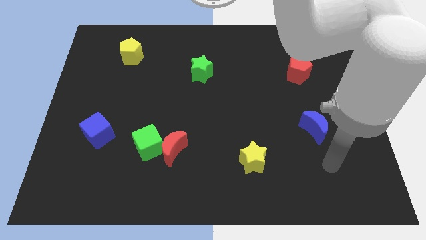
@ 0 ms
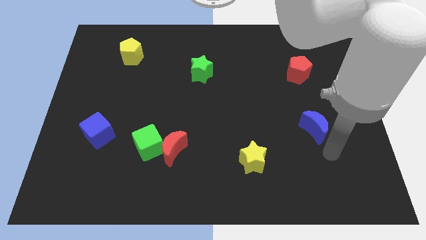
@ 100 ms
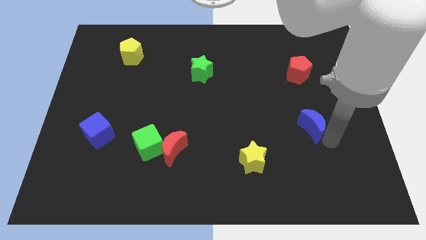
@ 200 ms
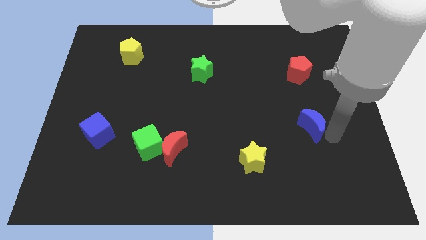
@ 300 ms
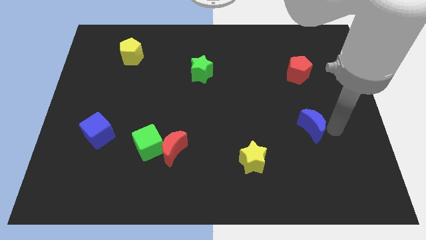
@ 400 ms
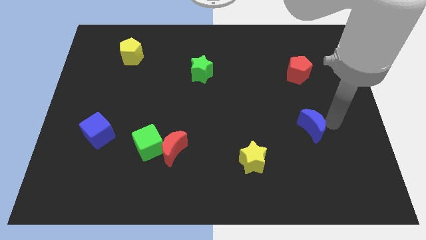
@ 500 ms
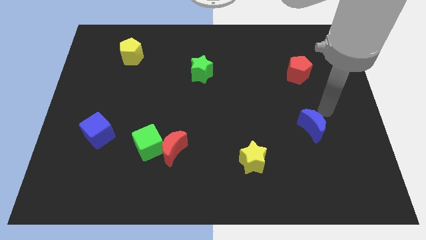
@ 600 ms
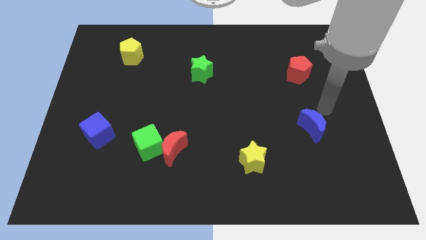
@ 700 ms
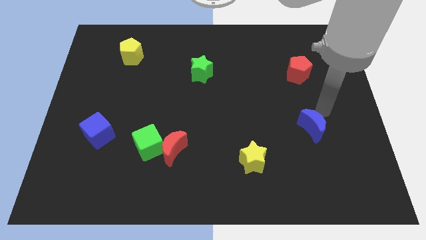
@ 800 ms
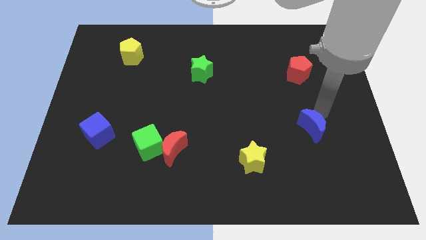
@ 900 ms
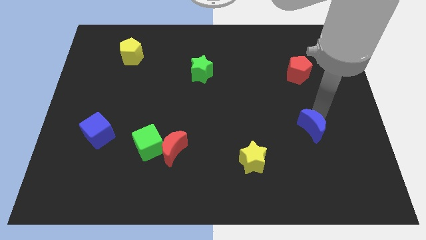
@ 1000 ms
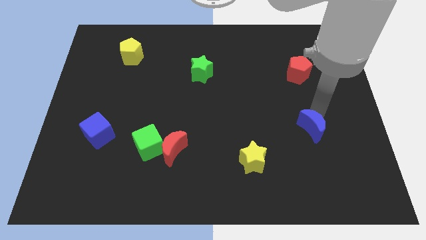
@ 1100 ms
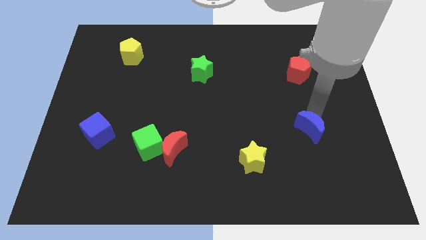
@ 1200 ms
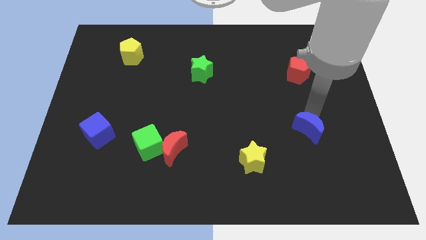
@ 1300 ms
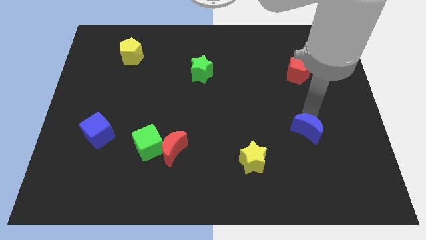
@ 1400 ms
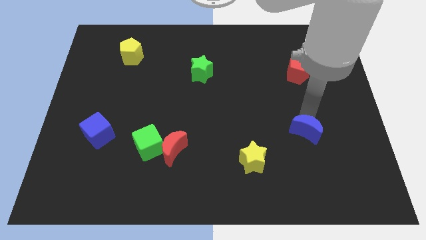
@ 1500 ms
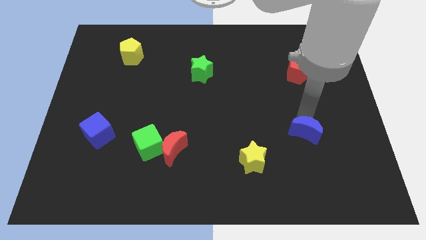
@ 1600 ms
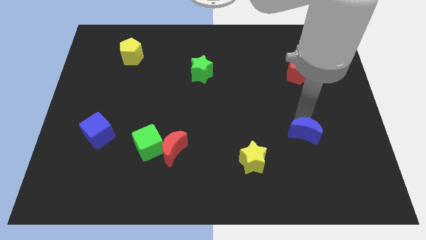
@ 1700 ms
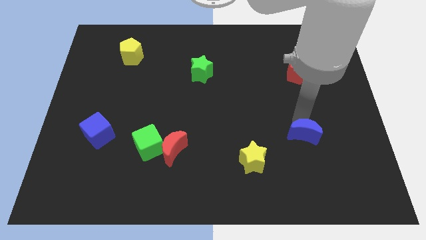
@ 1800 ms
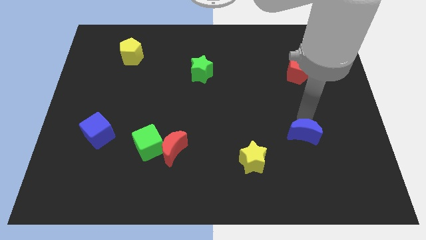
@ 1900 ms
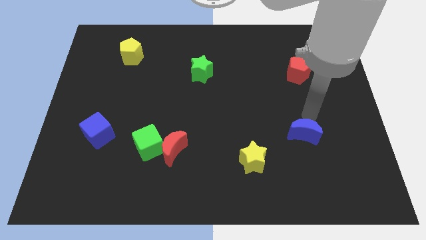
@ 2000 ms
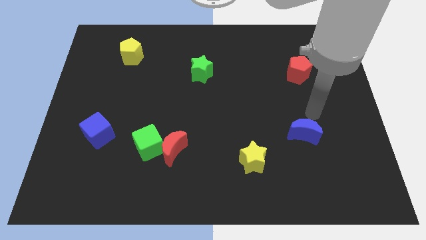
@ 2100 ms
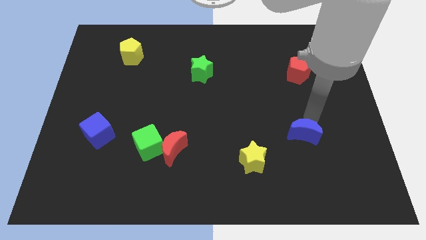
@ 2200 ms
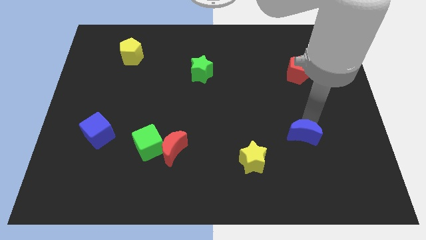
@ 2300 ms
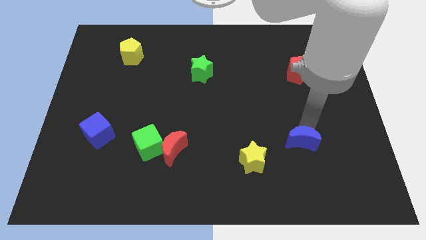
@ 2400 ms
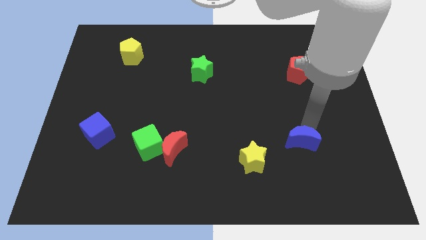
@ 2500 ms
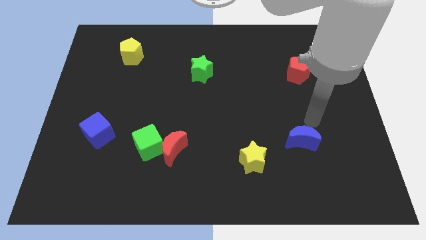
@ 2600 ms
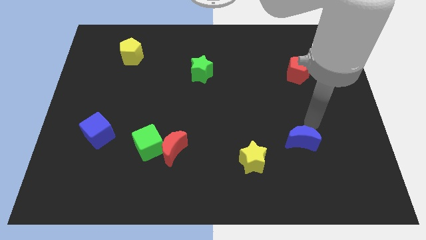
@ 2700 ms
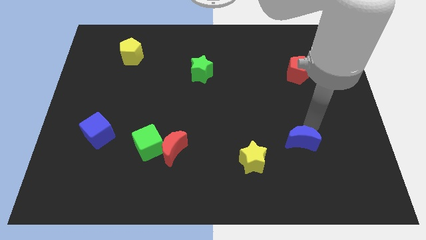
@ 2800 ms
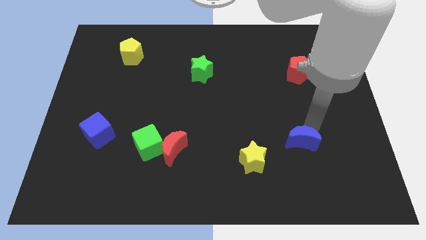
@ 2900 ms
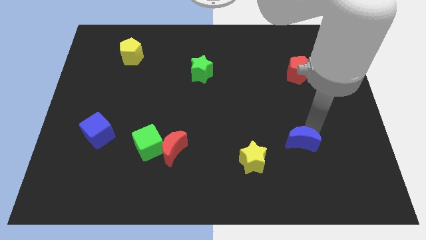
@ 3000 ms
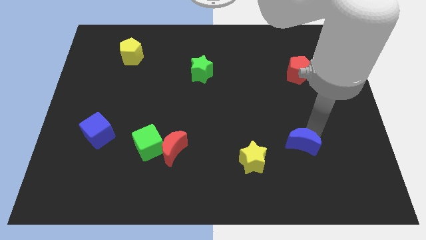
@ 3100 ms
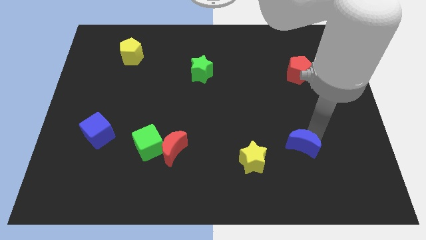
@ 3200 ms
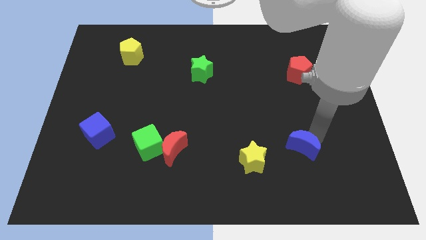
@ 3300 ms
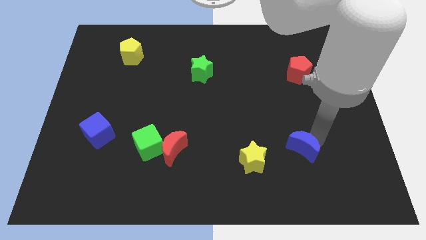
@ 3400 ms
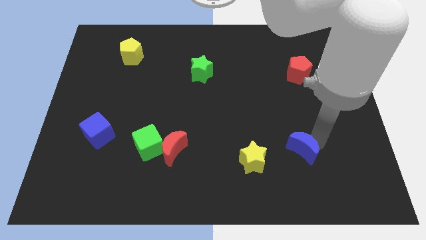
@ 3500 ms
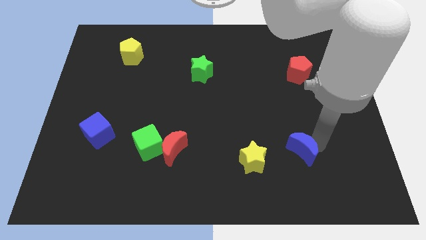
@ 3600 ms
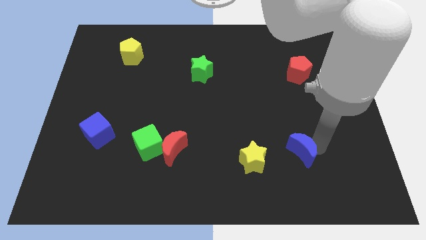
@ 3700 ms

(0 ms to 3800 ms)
move the blue moon somewhat downwards and then left

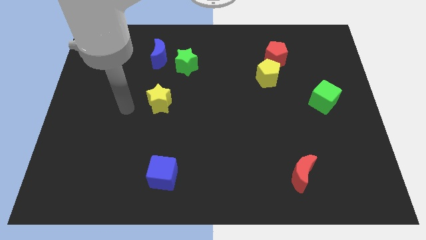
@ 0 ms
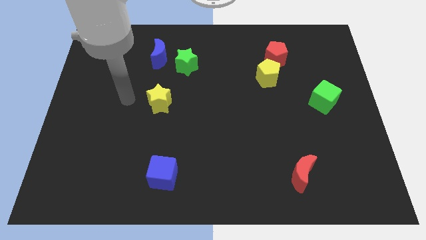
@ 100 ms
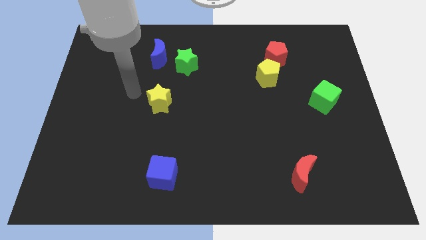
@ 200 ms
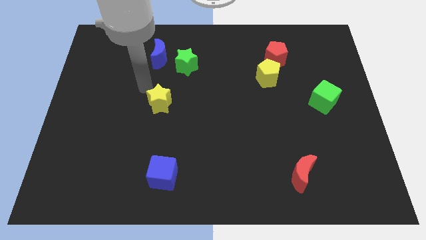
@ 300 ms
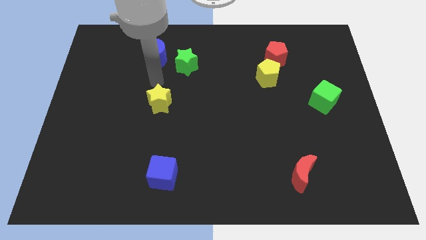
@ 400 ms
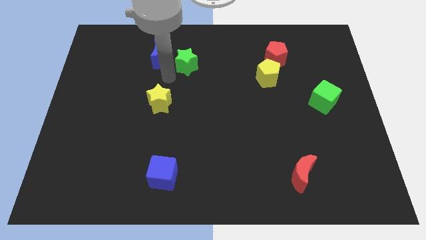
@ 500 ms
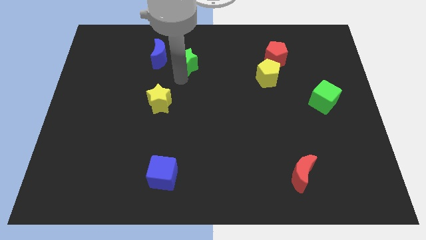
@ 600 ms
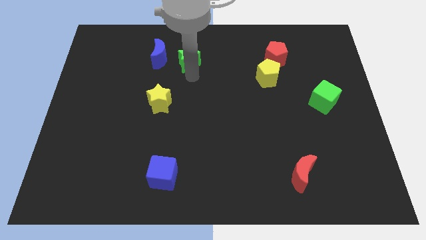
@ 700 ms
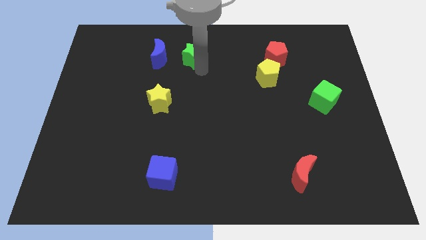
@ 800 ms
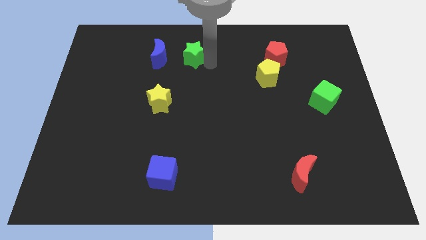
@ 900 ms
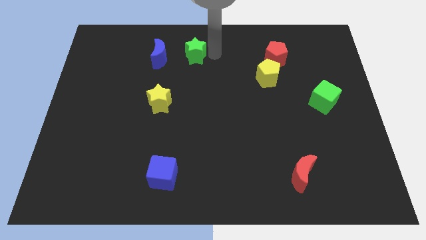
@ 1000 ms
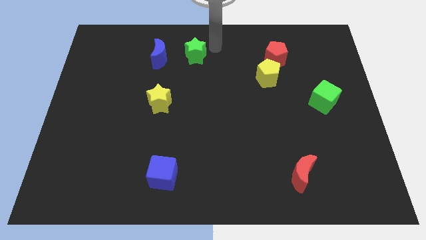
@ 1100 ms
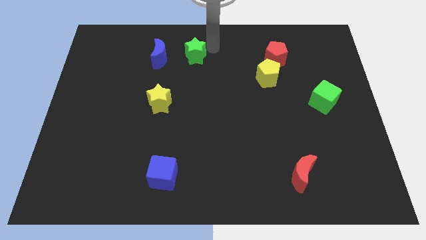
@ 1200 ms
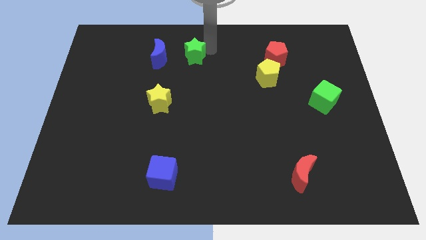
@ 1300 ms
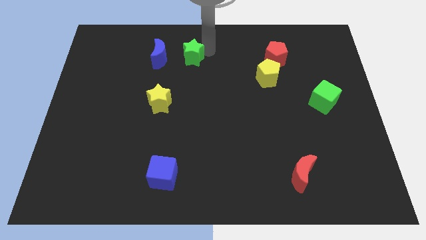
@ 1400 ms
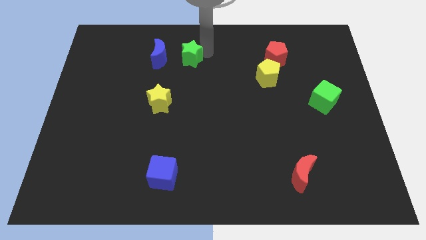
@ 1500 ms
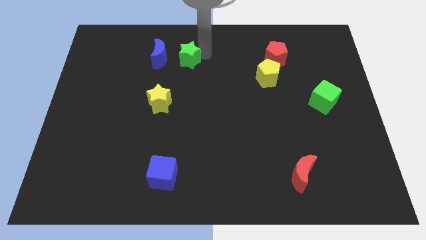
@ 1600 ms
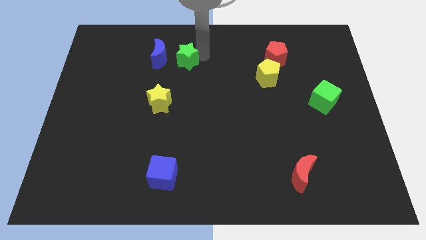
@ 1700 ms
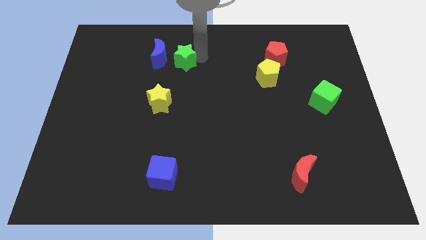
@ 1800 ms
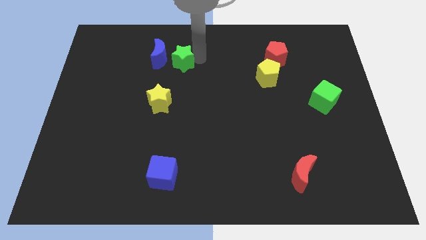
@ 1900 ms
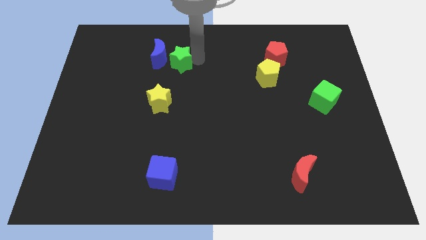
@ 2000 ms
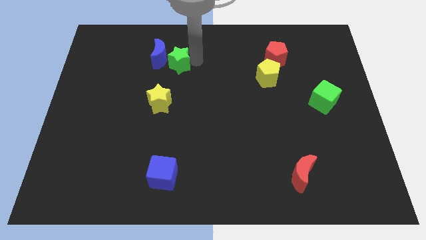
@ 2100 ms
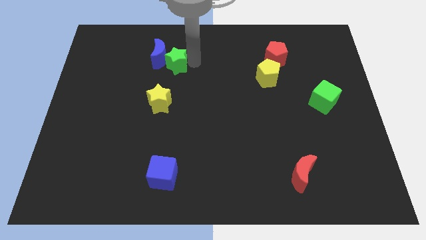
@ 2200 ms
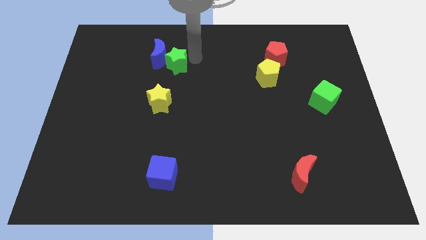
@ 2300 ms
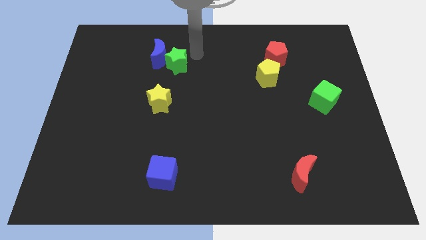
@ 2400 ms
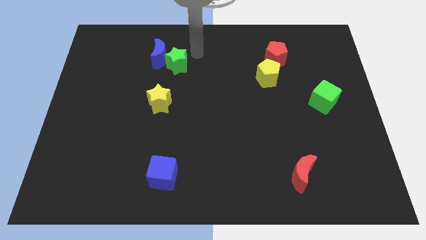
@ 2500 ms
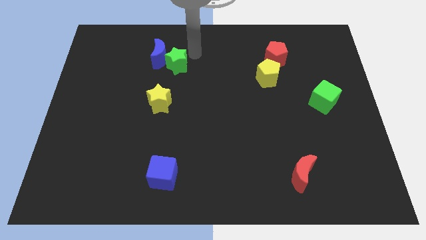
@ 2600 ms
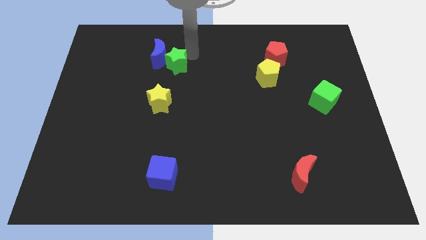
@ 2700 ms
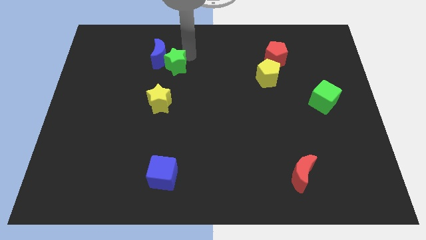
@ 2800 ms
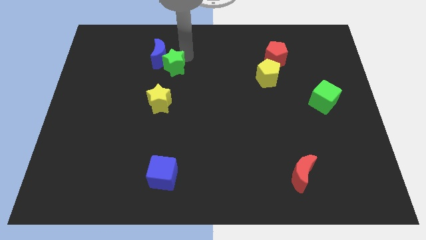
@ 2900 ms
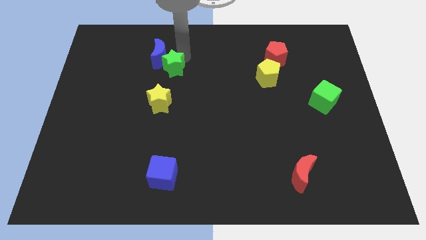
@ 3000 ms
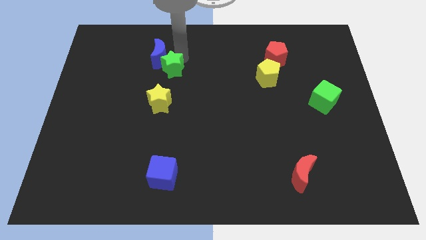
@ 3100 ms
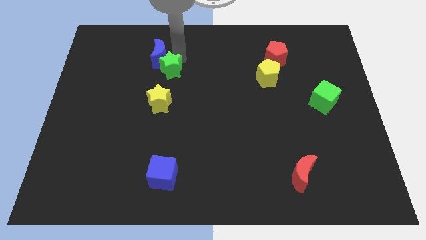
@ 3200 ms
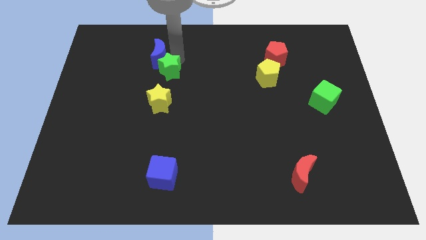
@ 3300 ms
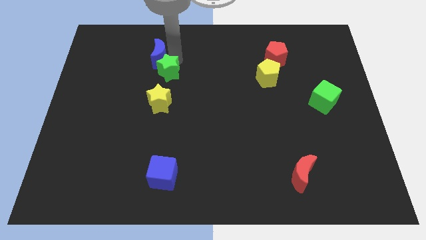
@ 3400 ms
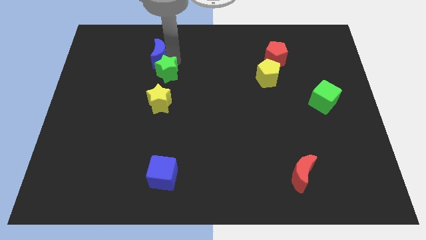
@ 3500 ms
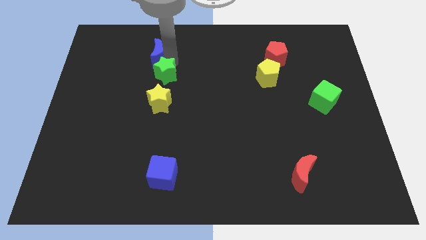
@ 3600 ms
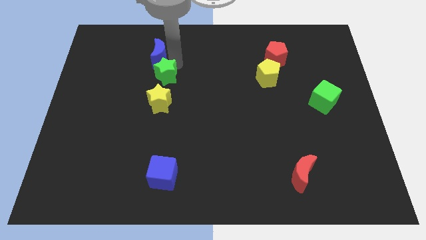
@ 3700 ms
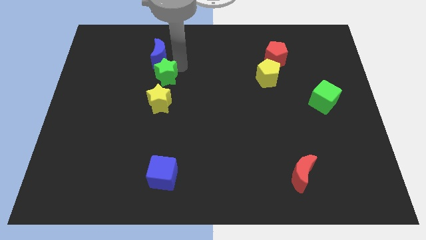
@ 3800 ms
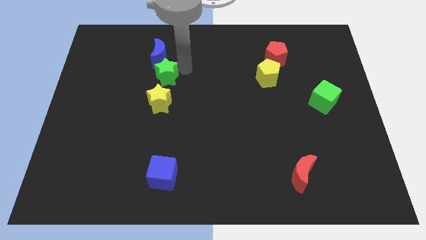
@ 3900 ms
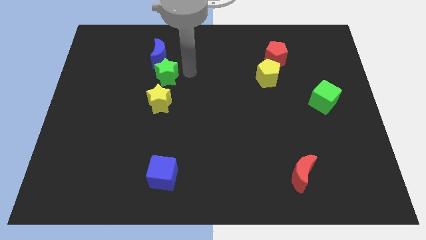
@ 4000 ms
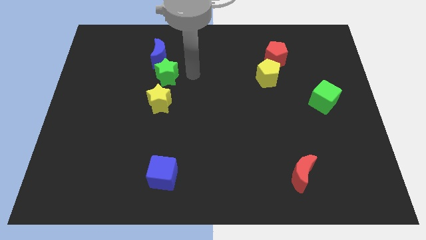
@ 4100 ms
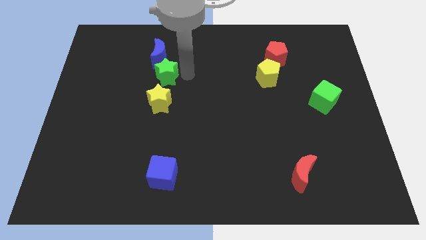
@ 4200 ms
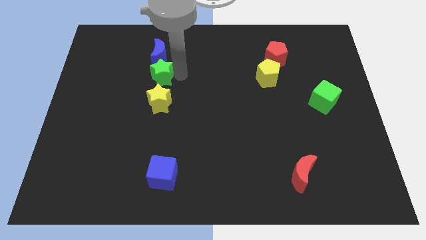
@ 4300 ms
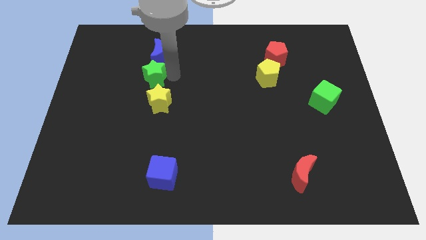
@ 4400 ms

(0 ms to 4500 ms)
move the green star a little to the left
